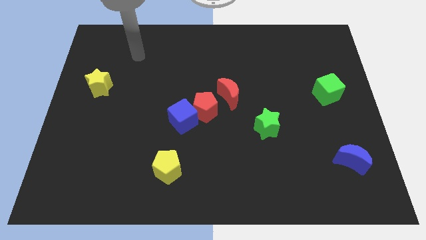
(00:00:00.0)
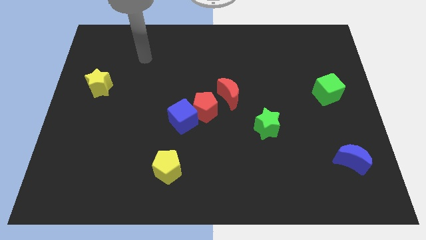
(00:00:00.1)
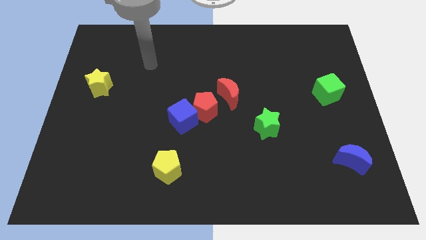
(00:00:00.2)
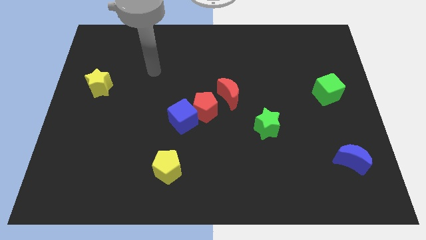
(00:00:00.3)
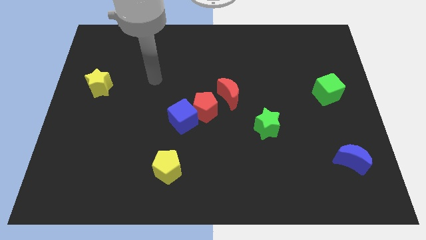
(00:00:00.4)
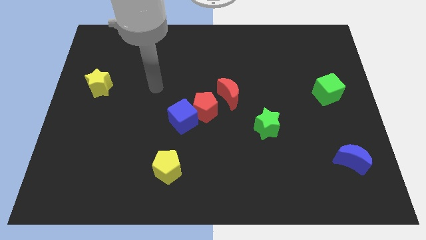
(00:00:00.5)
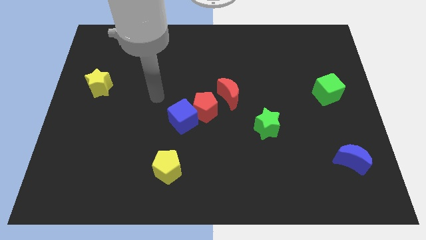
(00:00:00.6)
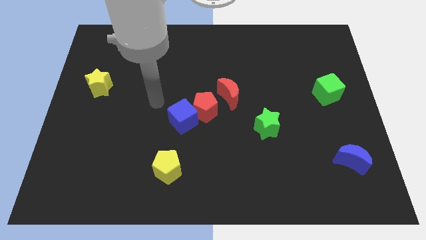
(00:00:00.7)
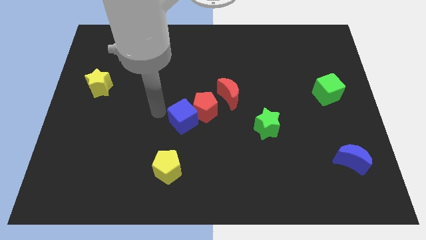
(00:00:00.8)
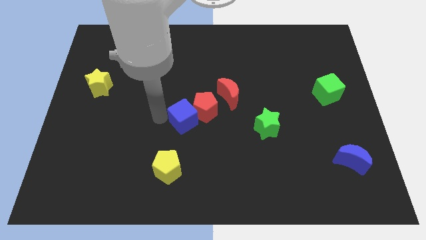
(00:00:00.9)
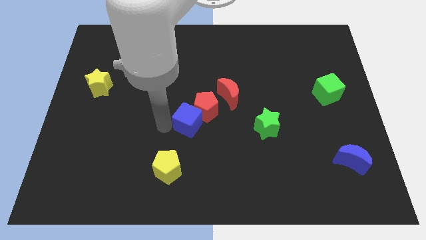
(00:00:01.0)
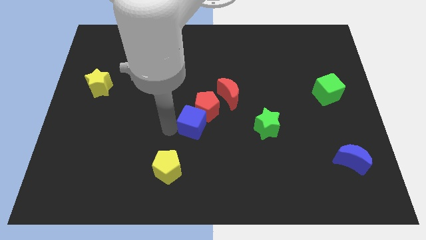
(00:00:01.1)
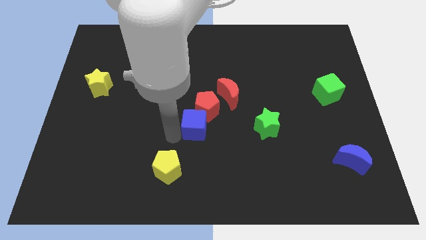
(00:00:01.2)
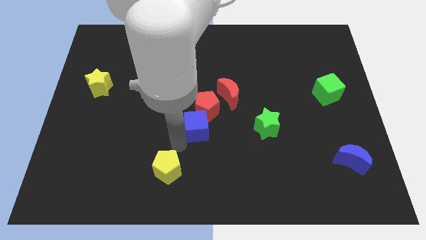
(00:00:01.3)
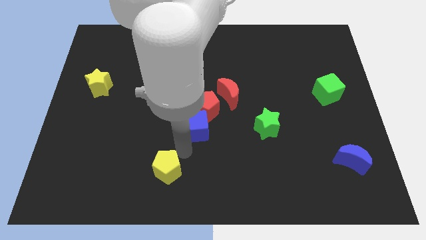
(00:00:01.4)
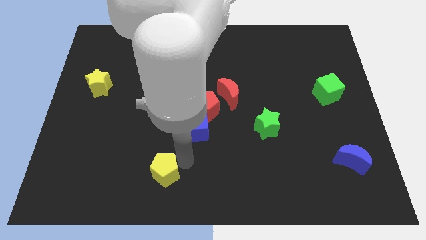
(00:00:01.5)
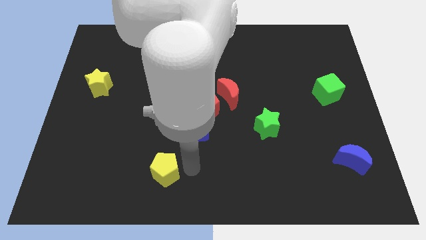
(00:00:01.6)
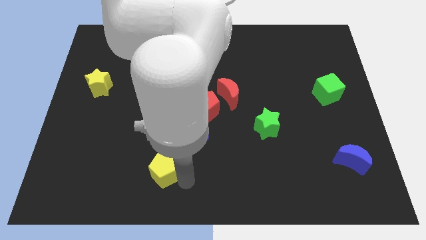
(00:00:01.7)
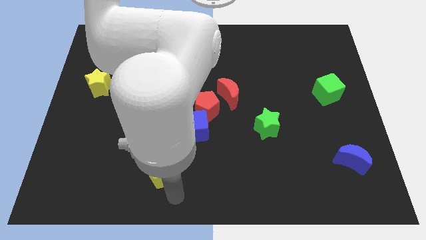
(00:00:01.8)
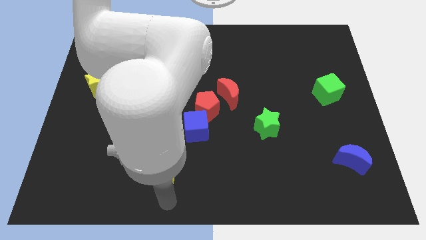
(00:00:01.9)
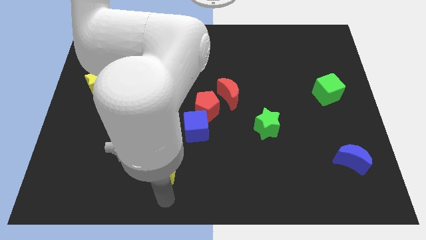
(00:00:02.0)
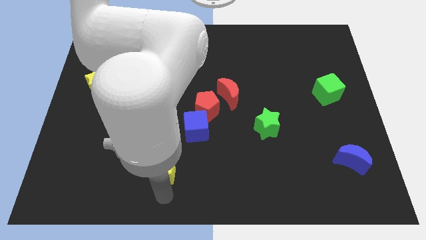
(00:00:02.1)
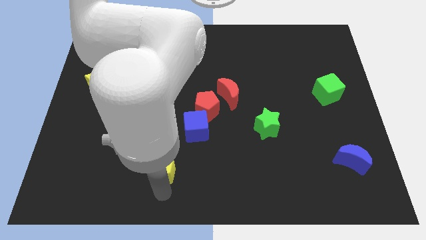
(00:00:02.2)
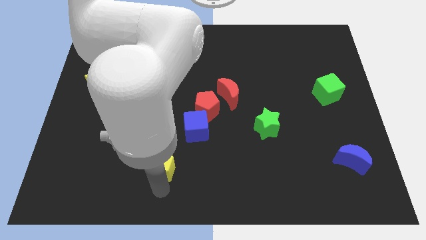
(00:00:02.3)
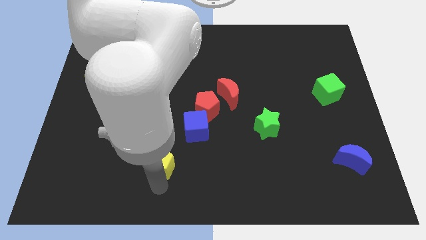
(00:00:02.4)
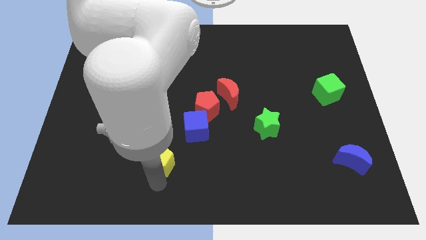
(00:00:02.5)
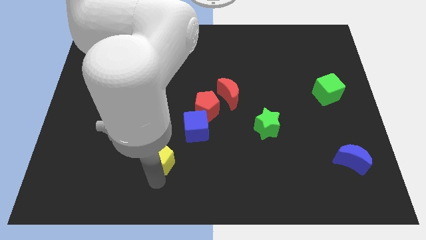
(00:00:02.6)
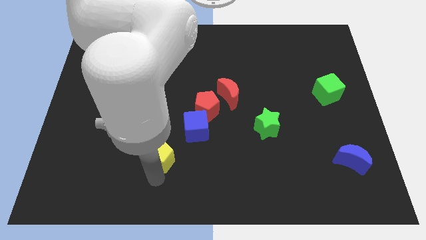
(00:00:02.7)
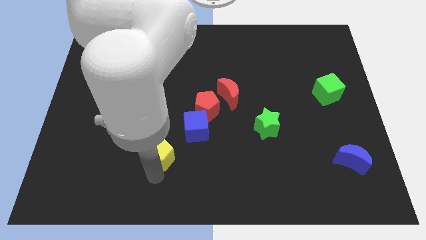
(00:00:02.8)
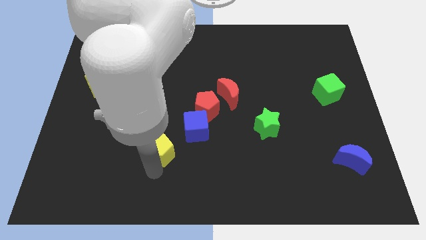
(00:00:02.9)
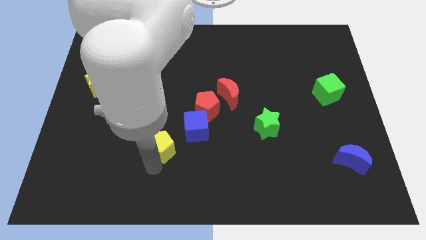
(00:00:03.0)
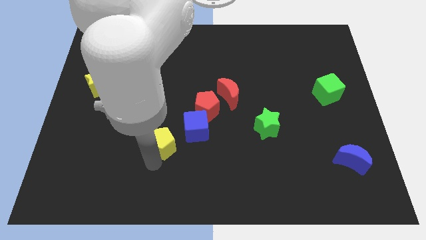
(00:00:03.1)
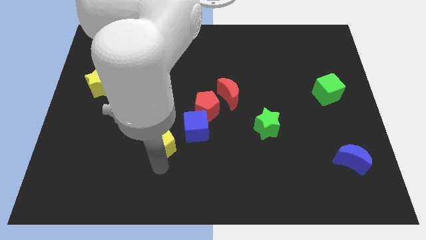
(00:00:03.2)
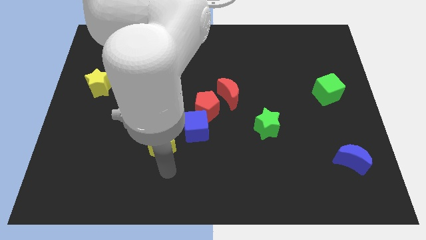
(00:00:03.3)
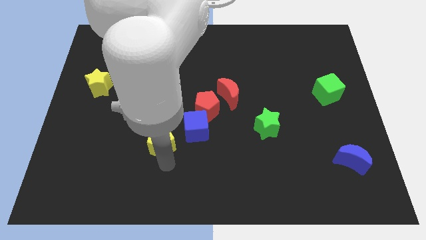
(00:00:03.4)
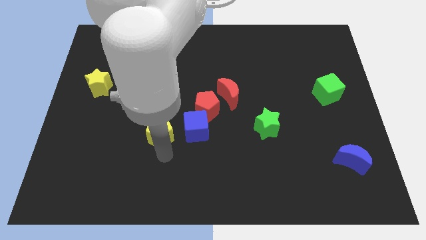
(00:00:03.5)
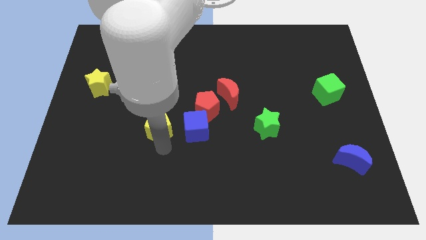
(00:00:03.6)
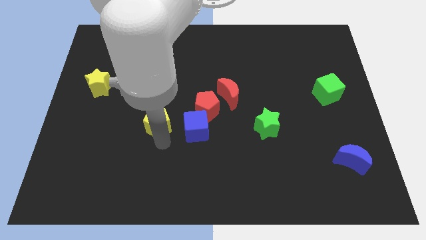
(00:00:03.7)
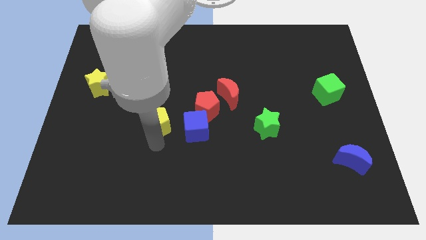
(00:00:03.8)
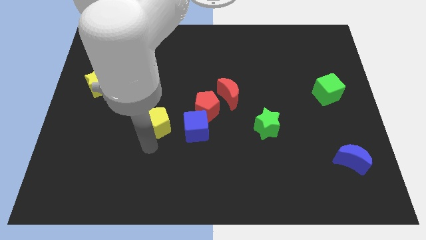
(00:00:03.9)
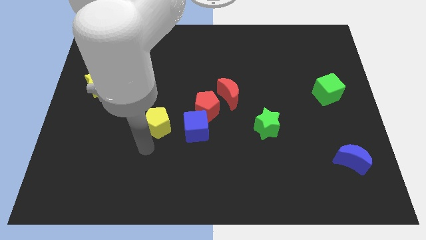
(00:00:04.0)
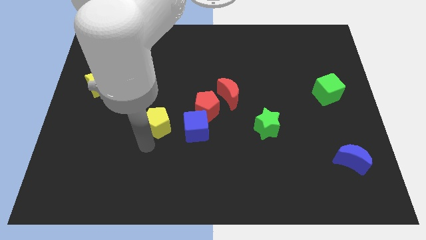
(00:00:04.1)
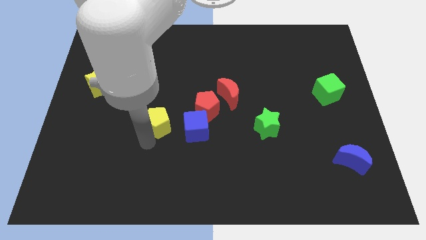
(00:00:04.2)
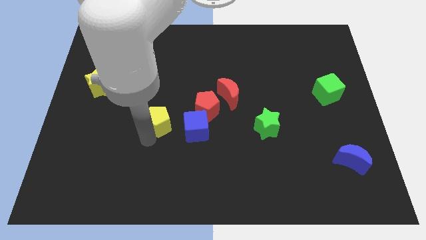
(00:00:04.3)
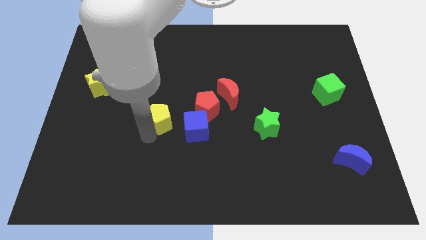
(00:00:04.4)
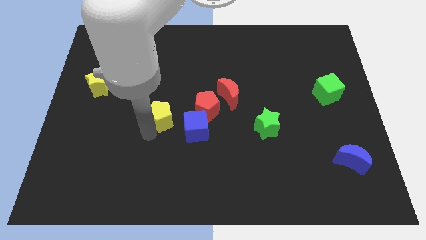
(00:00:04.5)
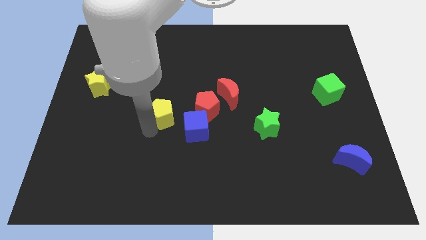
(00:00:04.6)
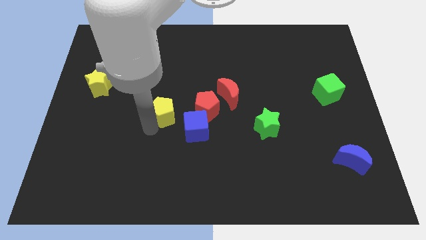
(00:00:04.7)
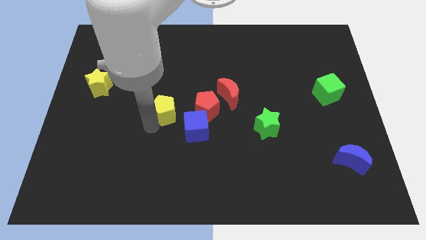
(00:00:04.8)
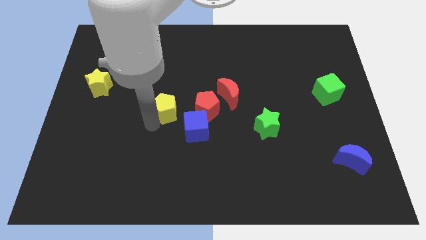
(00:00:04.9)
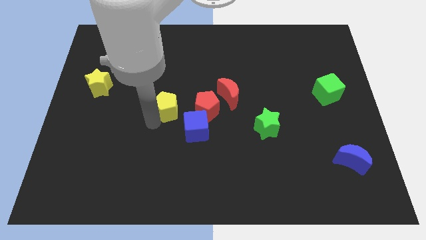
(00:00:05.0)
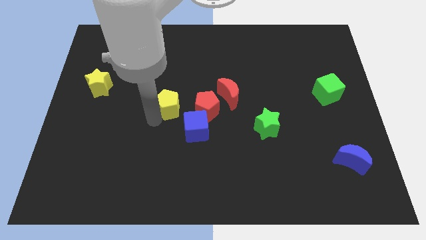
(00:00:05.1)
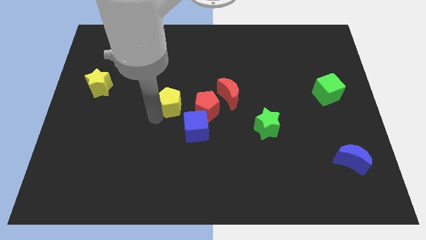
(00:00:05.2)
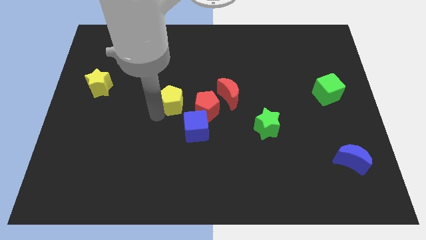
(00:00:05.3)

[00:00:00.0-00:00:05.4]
move the yellow pentagon to the top left of the red pentagon

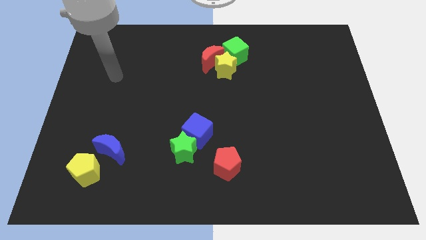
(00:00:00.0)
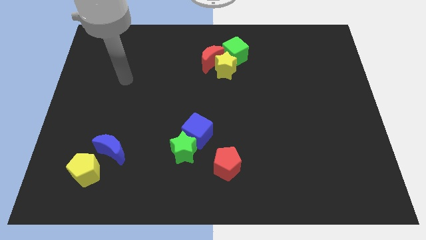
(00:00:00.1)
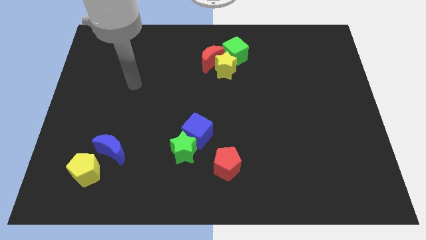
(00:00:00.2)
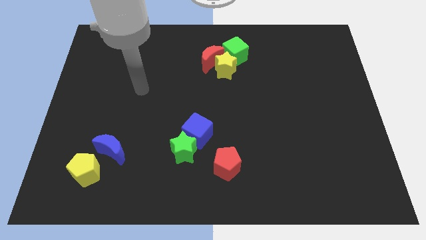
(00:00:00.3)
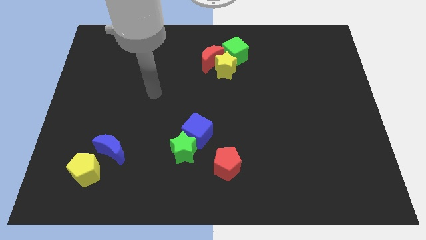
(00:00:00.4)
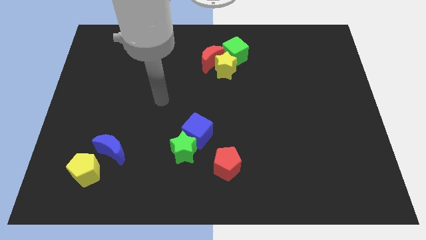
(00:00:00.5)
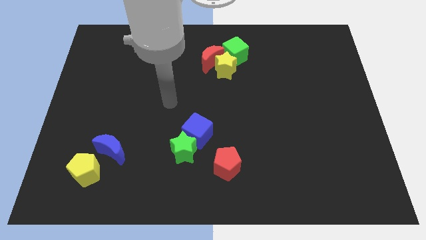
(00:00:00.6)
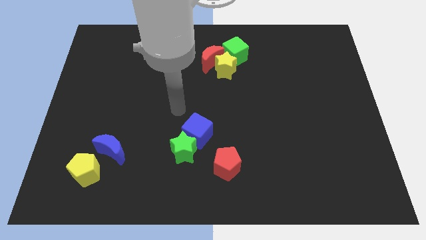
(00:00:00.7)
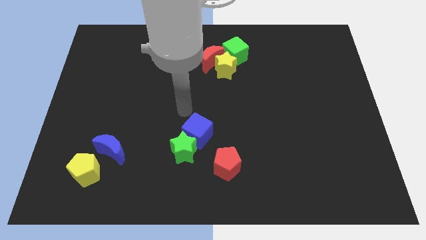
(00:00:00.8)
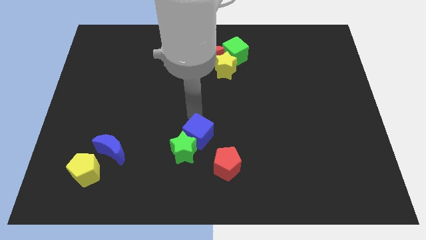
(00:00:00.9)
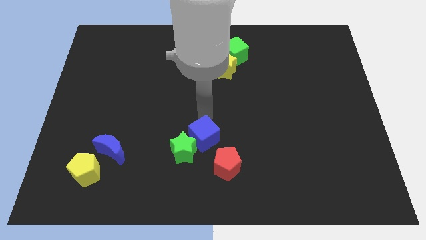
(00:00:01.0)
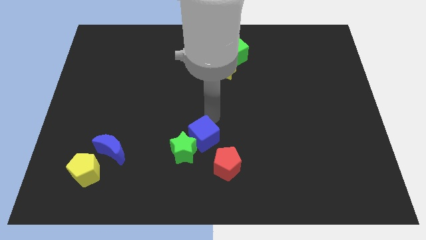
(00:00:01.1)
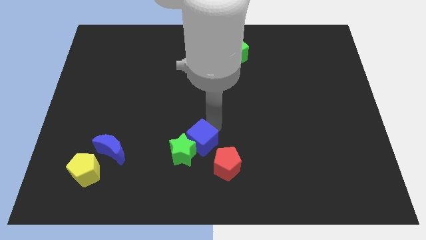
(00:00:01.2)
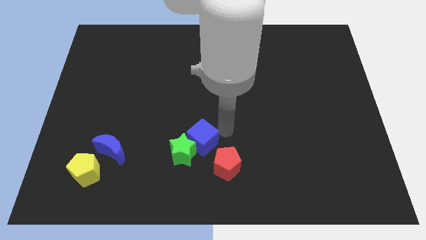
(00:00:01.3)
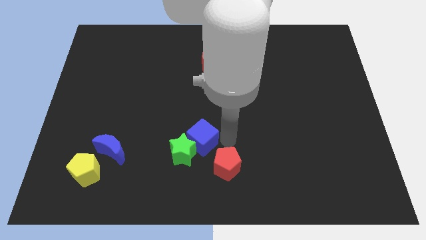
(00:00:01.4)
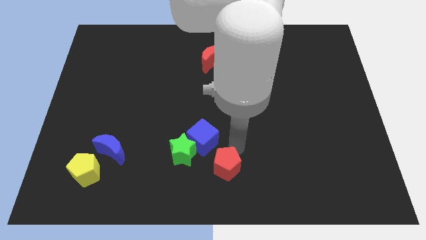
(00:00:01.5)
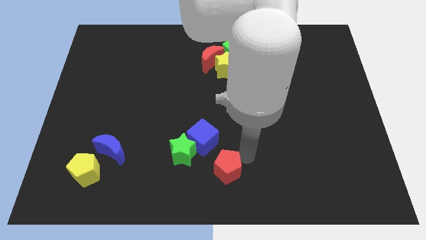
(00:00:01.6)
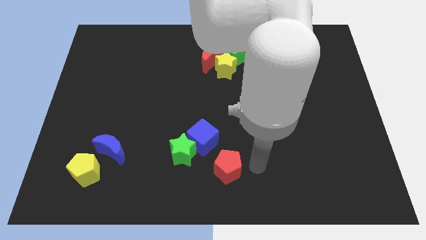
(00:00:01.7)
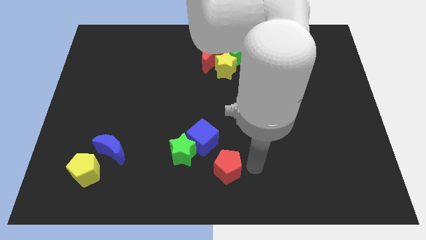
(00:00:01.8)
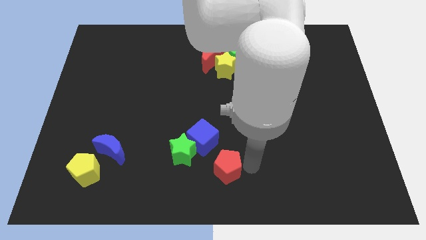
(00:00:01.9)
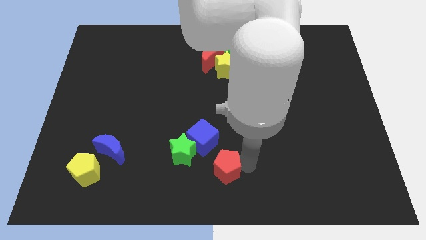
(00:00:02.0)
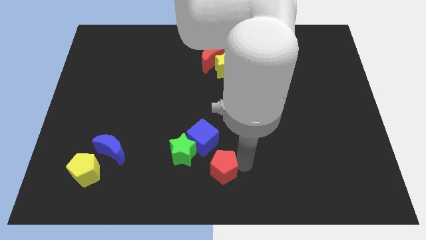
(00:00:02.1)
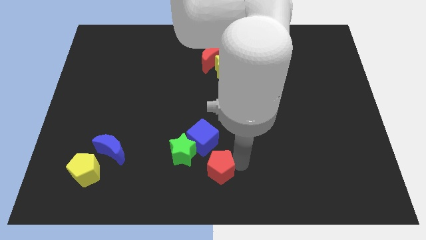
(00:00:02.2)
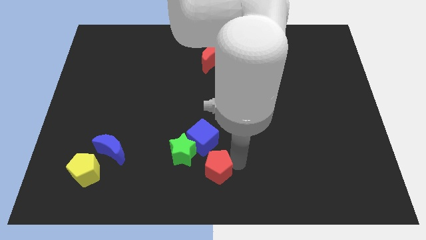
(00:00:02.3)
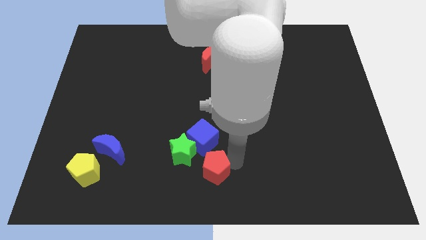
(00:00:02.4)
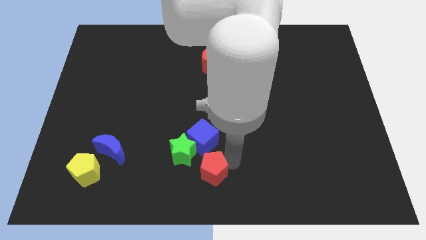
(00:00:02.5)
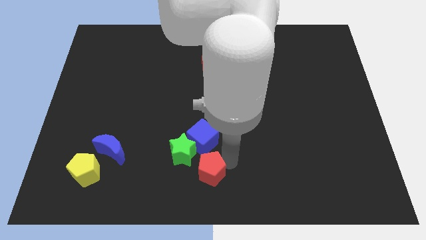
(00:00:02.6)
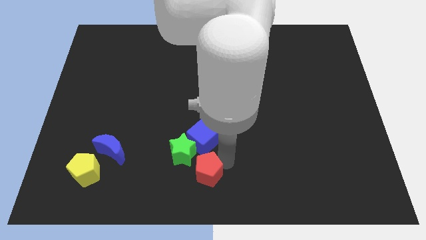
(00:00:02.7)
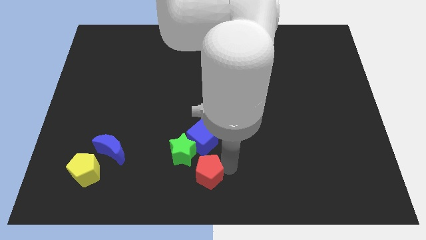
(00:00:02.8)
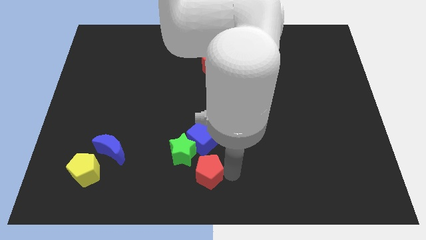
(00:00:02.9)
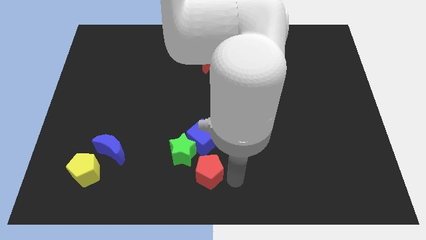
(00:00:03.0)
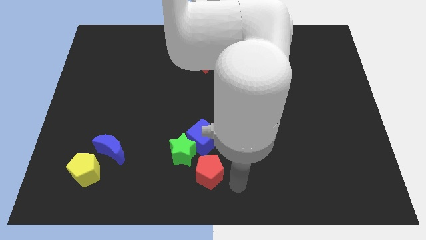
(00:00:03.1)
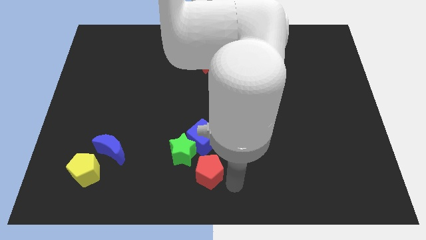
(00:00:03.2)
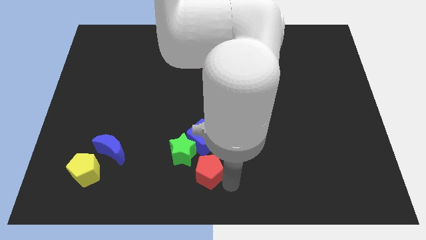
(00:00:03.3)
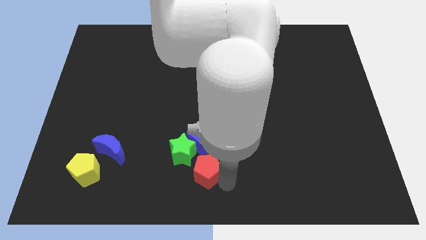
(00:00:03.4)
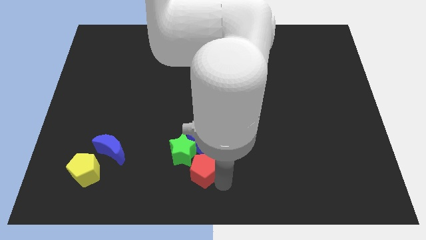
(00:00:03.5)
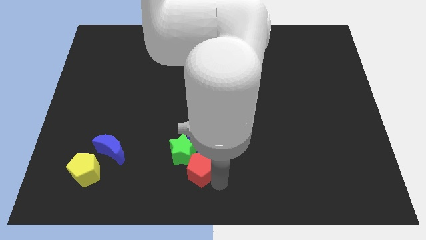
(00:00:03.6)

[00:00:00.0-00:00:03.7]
put the red pentagon to the bottom left side of the blue cube
